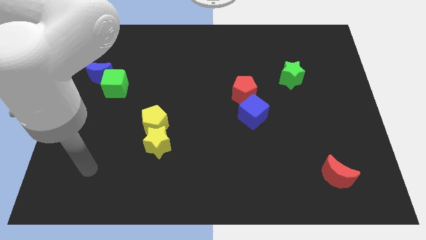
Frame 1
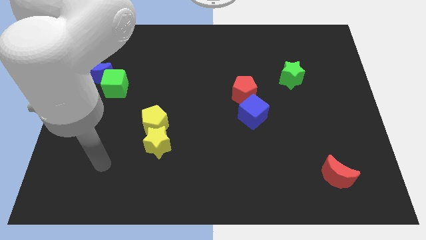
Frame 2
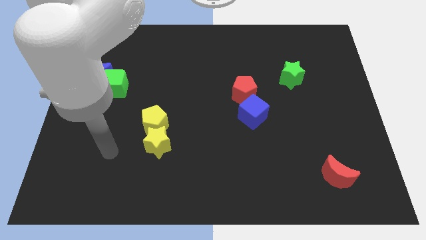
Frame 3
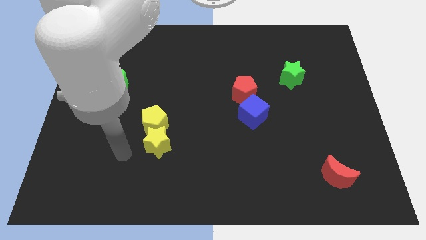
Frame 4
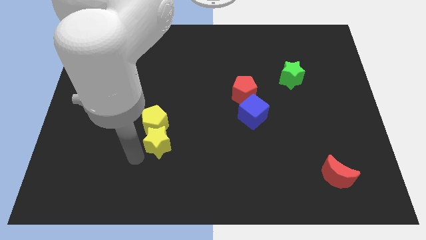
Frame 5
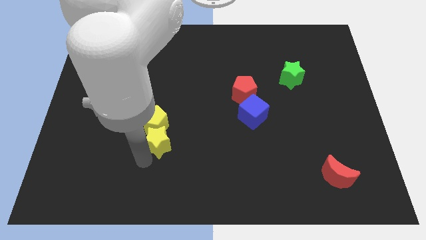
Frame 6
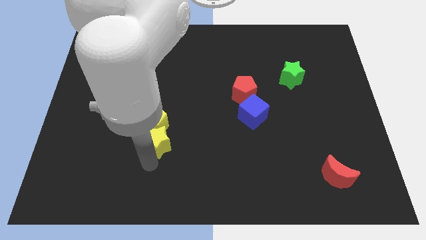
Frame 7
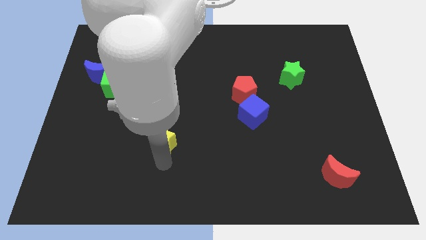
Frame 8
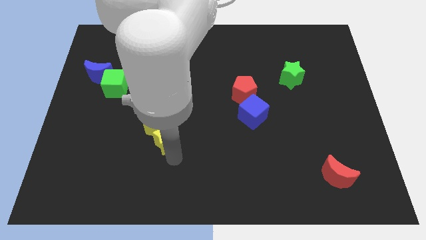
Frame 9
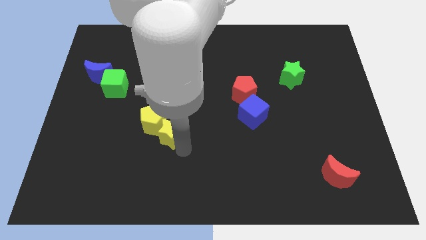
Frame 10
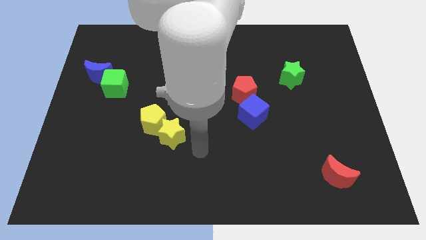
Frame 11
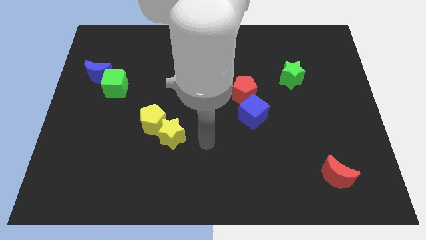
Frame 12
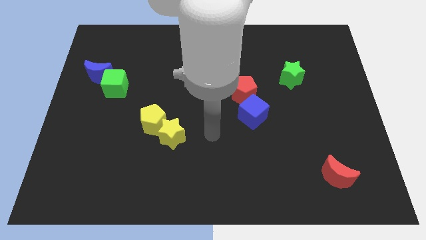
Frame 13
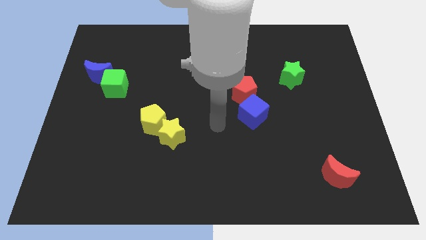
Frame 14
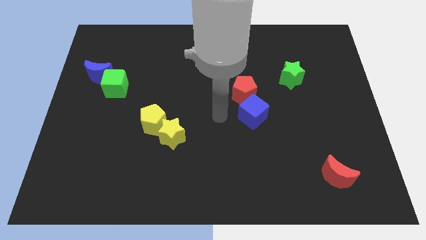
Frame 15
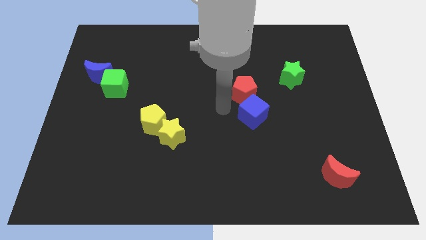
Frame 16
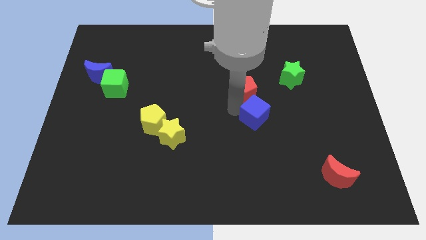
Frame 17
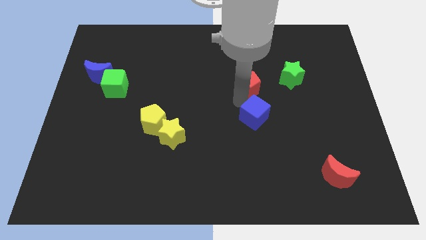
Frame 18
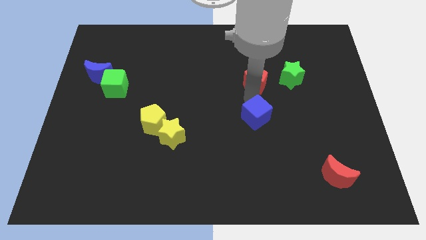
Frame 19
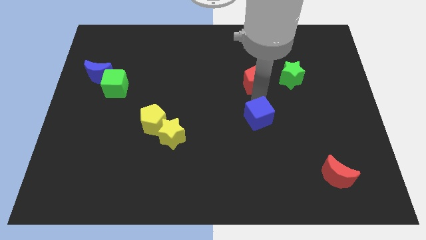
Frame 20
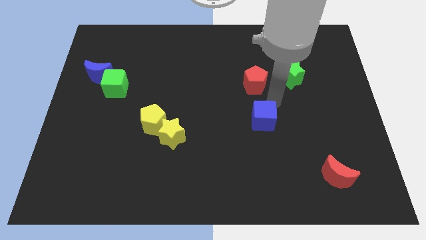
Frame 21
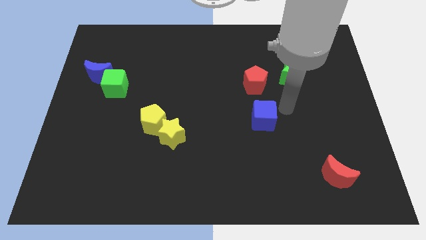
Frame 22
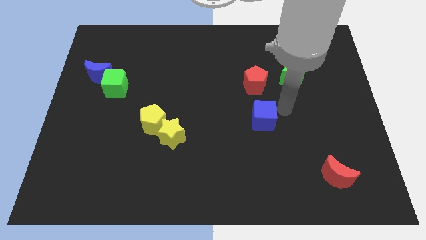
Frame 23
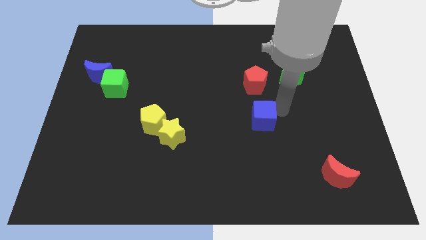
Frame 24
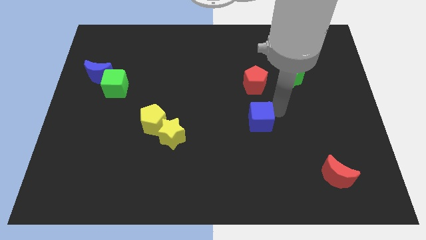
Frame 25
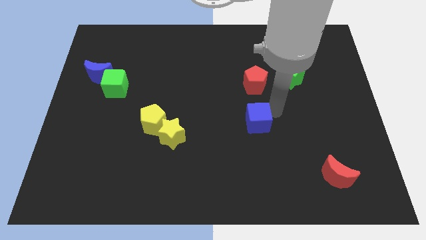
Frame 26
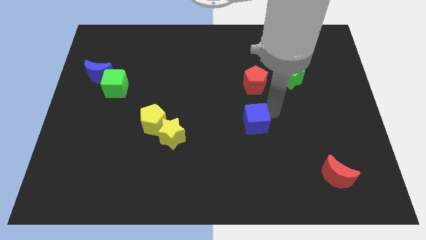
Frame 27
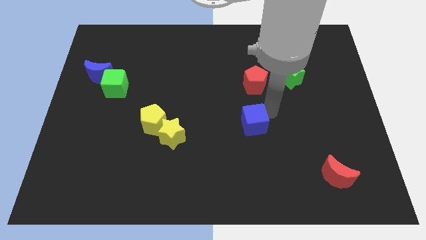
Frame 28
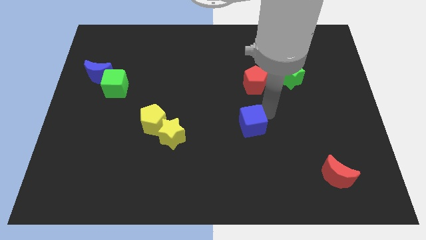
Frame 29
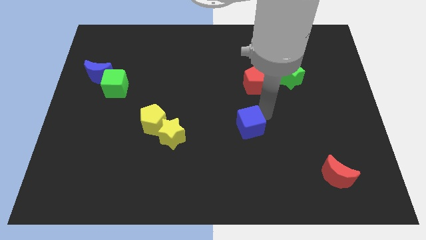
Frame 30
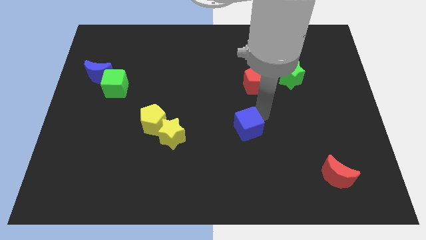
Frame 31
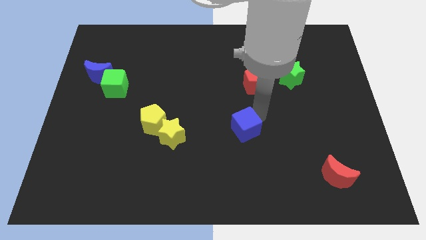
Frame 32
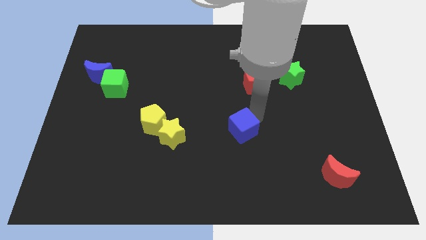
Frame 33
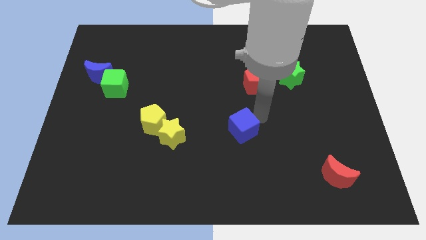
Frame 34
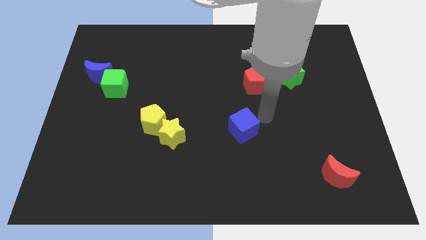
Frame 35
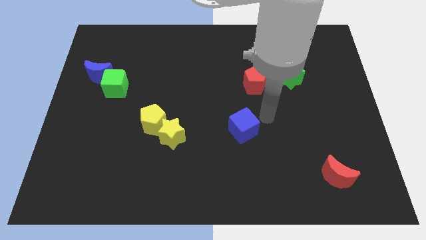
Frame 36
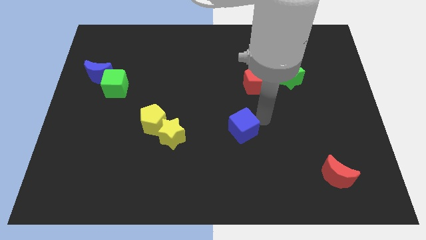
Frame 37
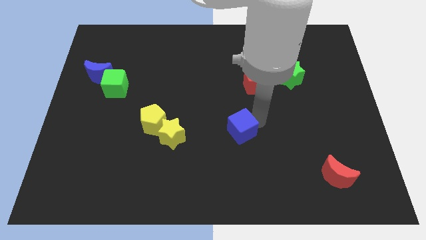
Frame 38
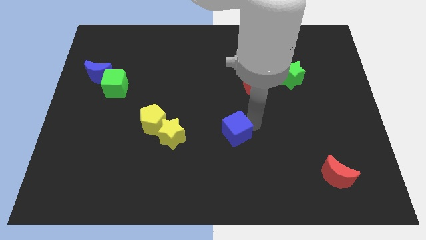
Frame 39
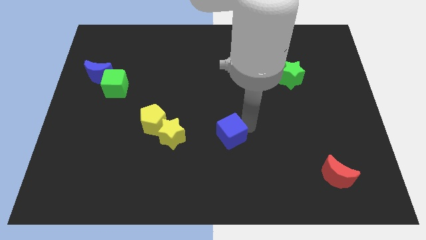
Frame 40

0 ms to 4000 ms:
move the blue cube downwards and then left somewhat

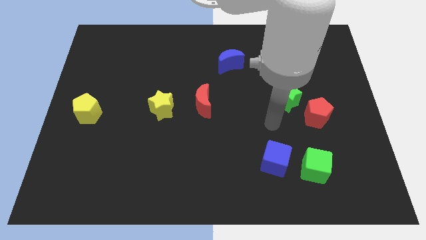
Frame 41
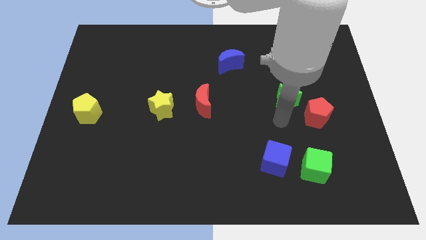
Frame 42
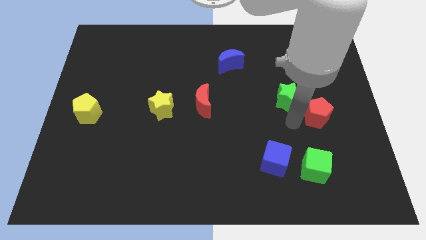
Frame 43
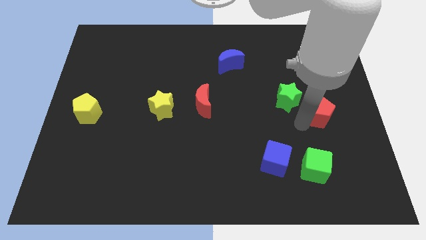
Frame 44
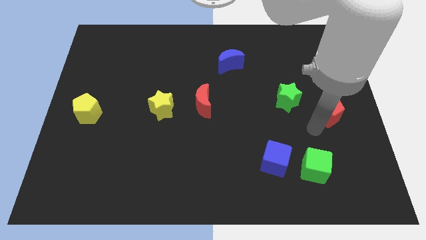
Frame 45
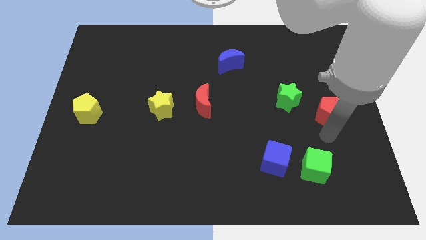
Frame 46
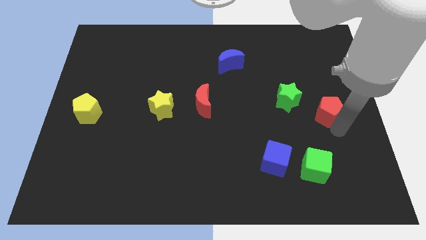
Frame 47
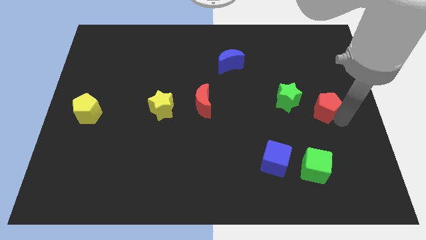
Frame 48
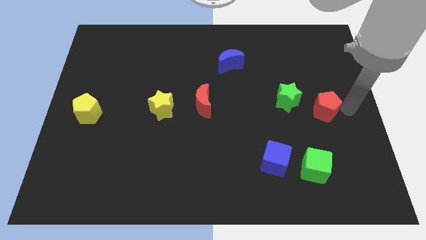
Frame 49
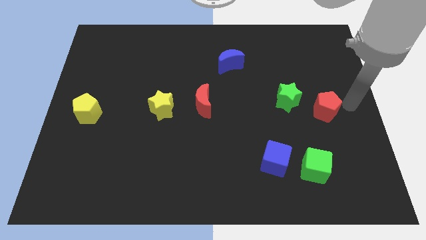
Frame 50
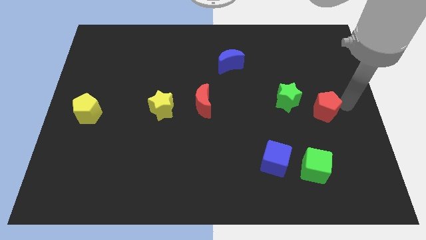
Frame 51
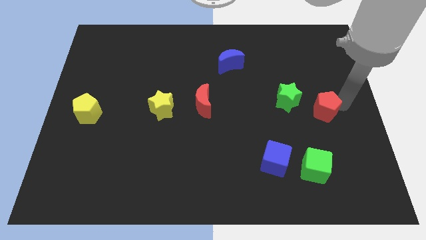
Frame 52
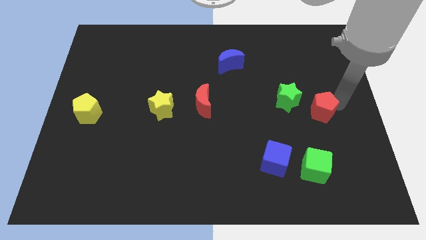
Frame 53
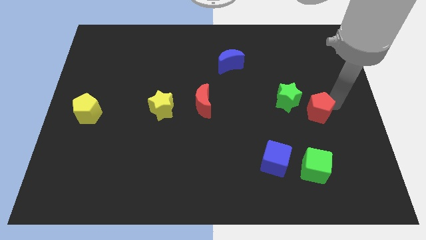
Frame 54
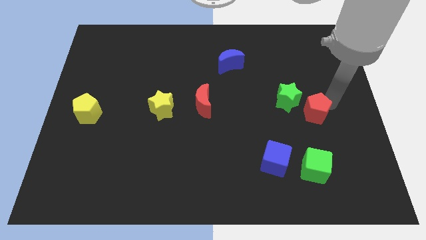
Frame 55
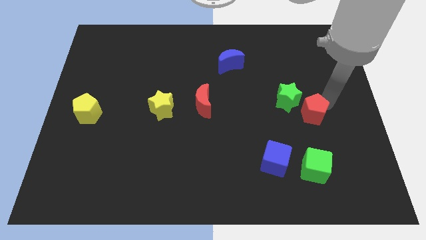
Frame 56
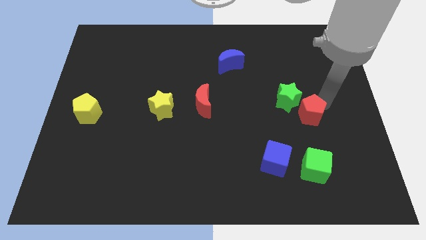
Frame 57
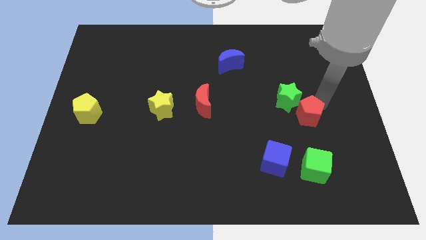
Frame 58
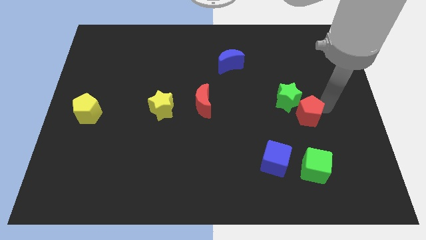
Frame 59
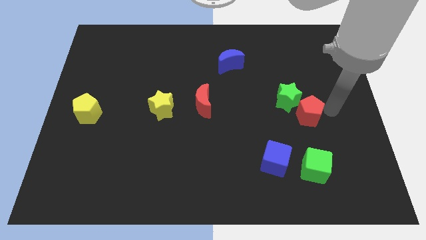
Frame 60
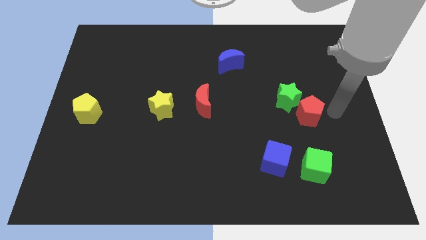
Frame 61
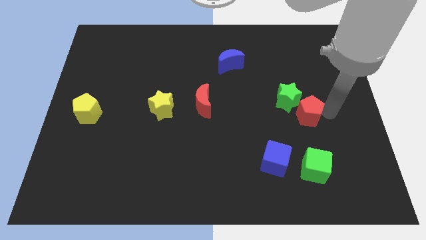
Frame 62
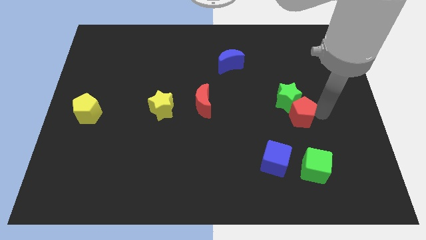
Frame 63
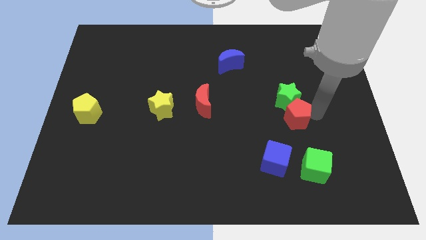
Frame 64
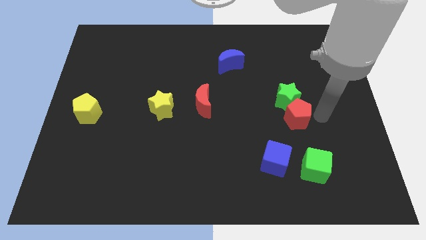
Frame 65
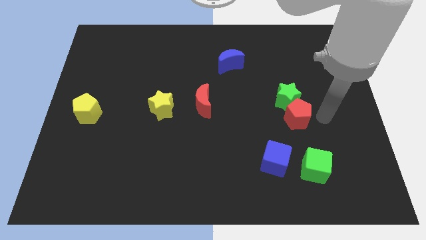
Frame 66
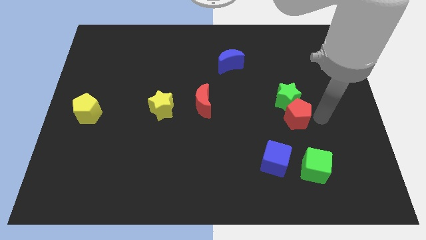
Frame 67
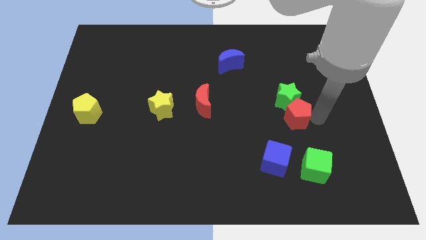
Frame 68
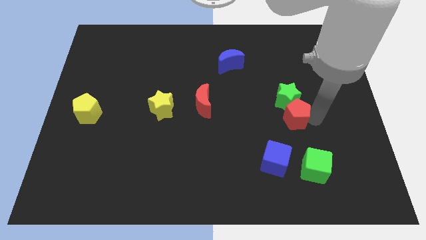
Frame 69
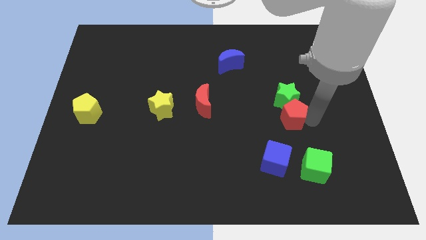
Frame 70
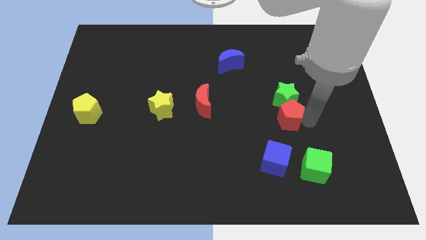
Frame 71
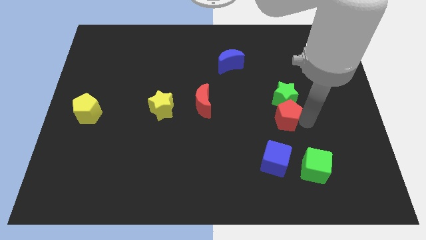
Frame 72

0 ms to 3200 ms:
slightly slide the red pentagon to the left

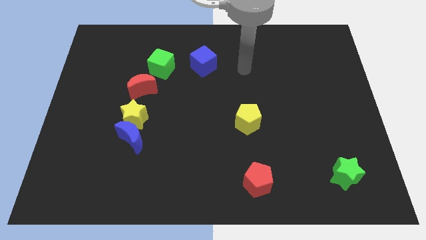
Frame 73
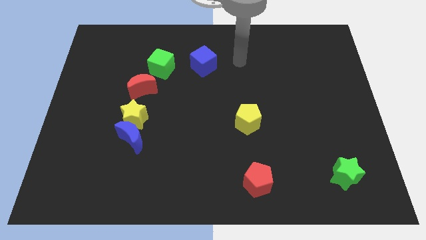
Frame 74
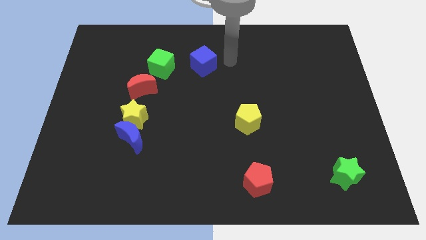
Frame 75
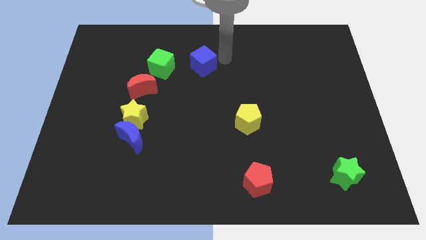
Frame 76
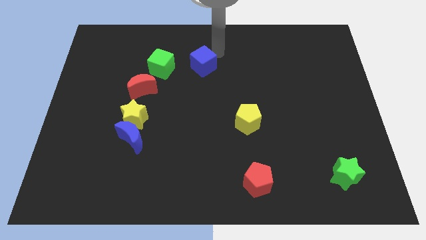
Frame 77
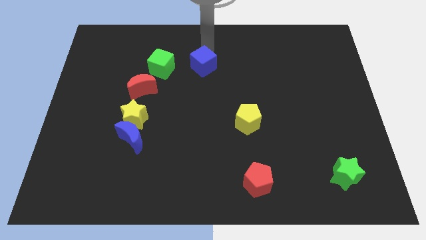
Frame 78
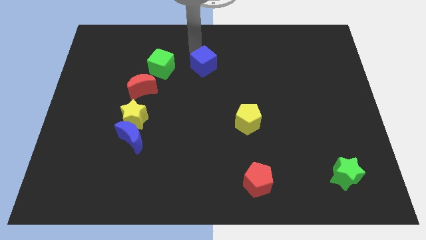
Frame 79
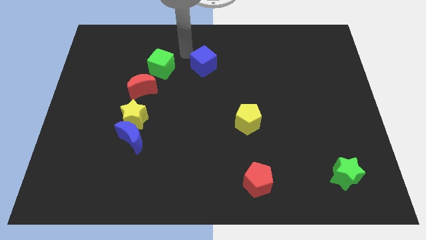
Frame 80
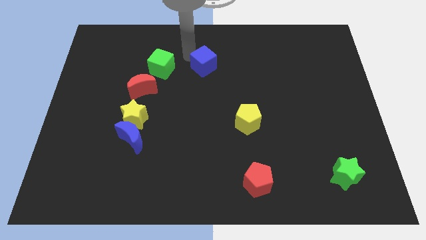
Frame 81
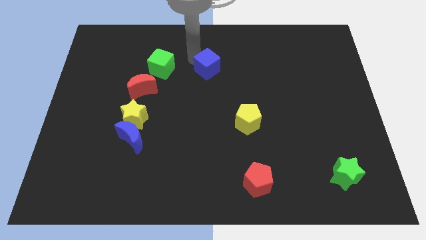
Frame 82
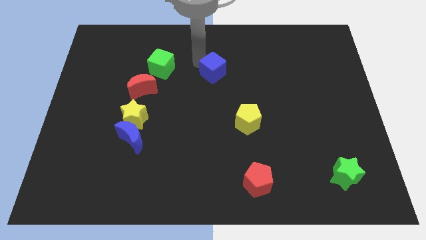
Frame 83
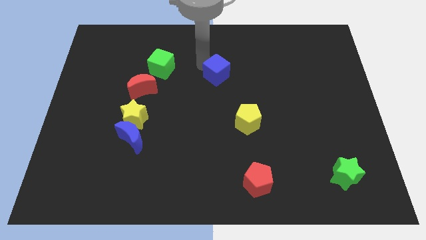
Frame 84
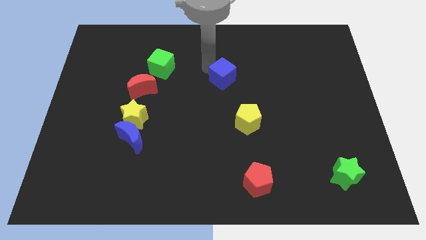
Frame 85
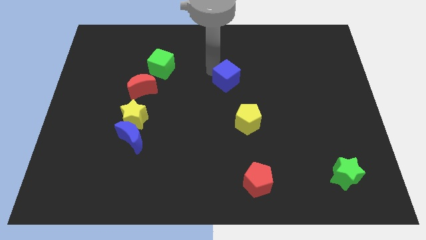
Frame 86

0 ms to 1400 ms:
slightly slide the blue cube downwards and to the right diagonally
